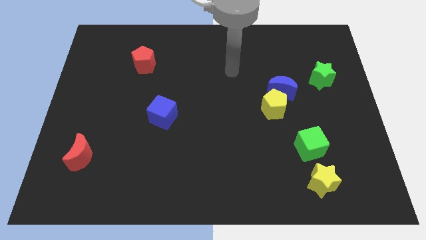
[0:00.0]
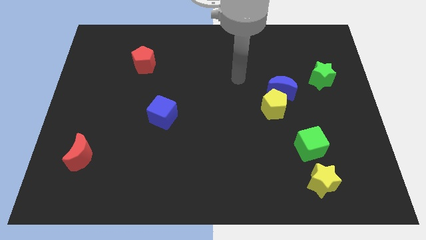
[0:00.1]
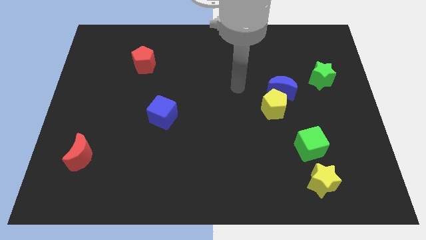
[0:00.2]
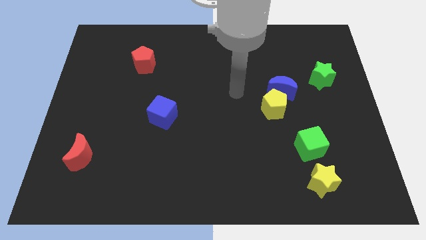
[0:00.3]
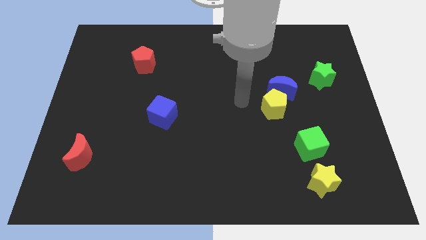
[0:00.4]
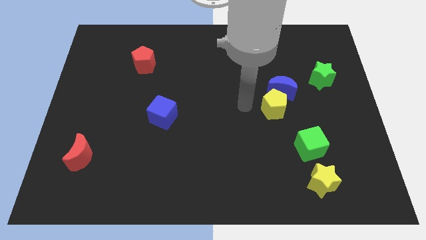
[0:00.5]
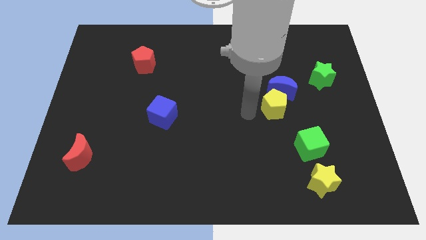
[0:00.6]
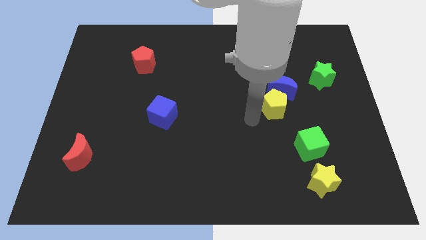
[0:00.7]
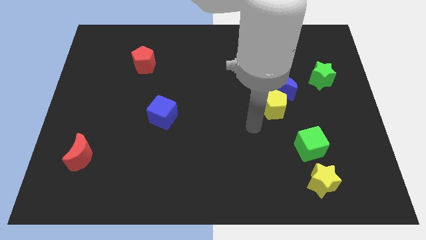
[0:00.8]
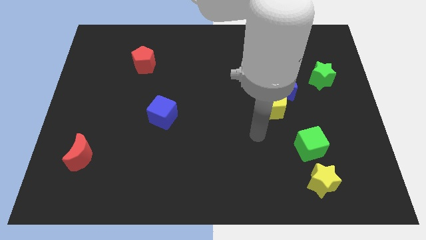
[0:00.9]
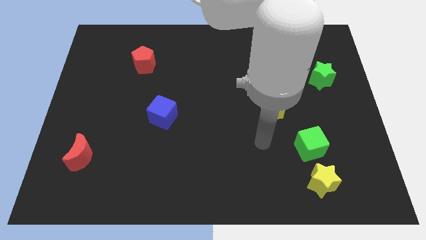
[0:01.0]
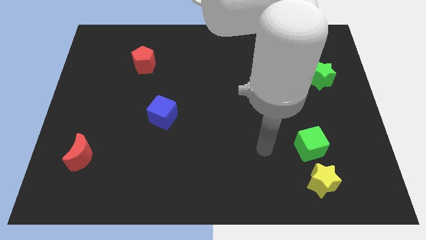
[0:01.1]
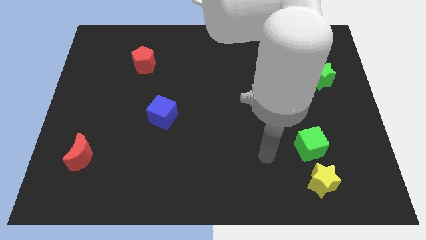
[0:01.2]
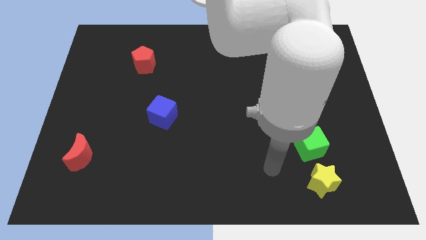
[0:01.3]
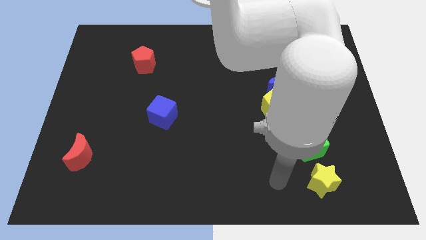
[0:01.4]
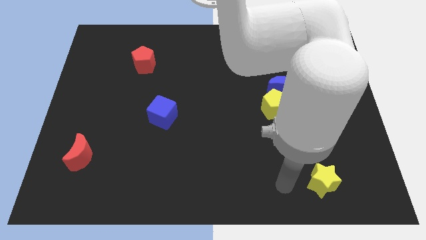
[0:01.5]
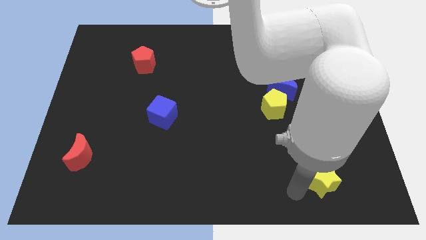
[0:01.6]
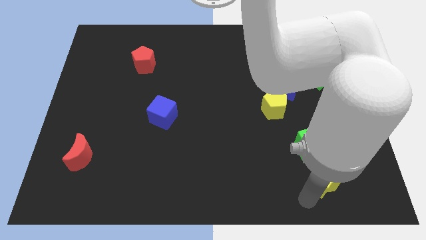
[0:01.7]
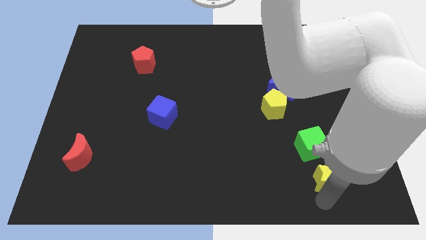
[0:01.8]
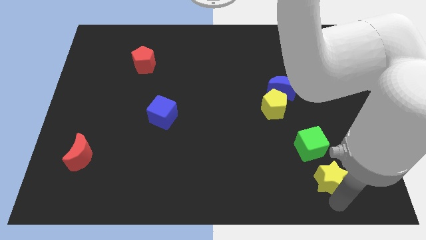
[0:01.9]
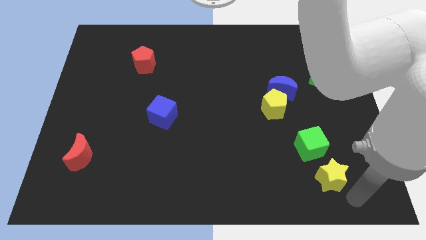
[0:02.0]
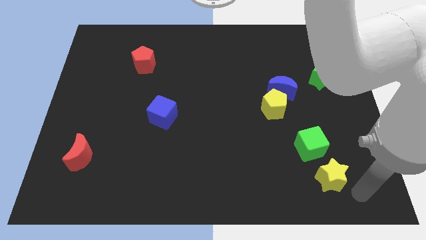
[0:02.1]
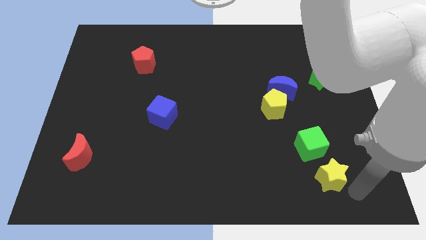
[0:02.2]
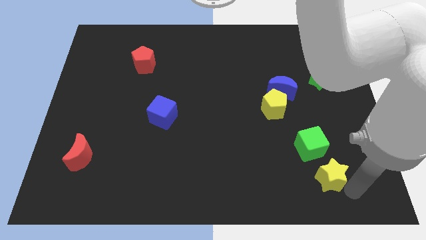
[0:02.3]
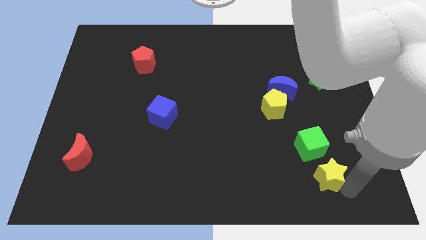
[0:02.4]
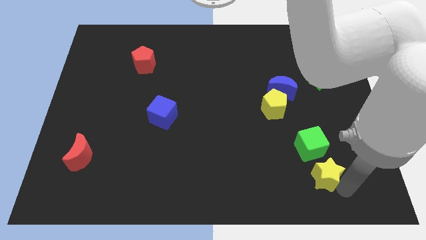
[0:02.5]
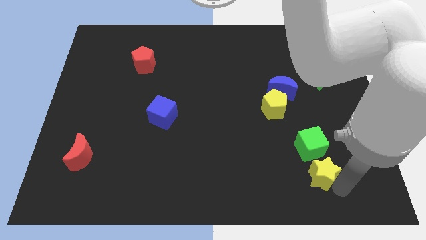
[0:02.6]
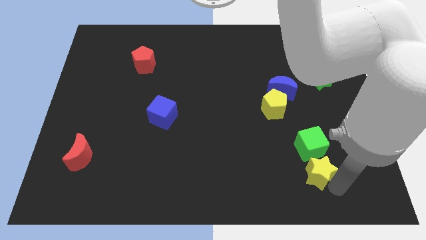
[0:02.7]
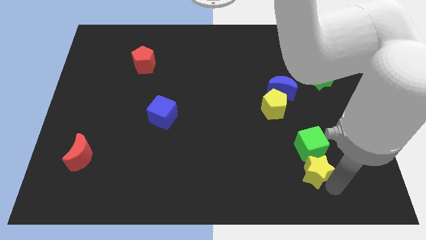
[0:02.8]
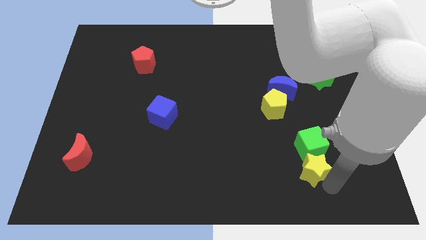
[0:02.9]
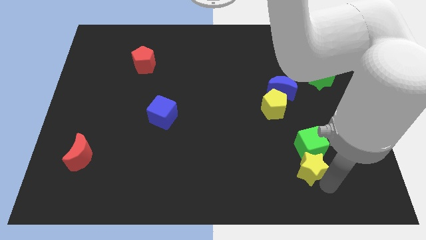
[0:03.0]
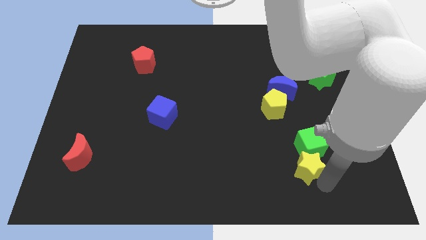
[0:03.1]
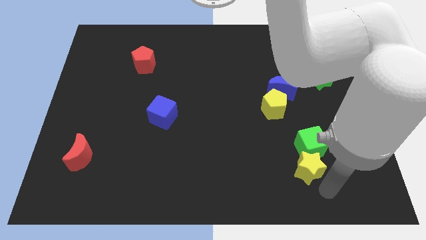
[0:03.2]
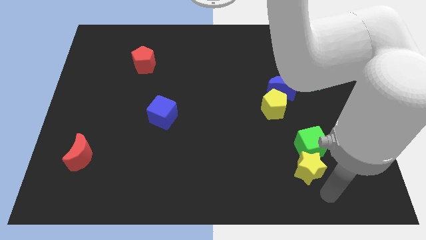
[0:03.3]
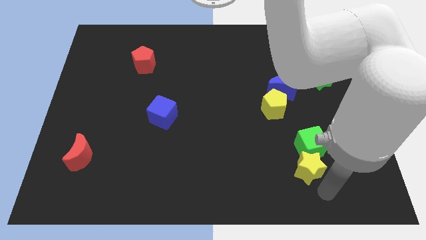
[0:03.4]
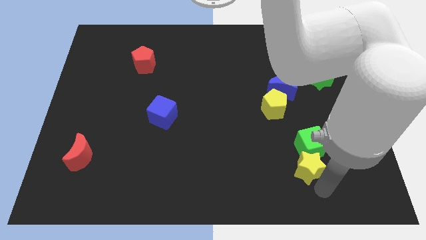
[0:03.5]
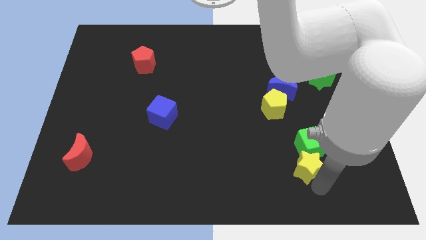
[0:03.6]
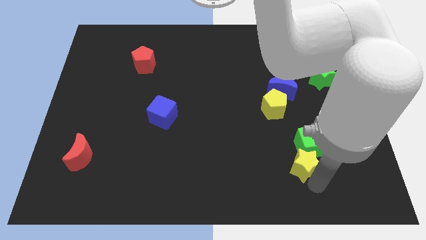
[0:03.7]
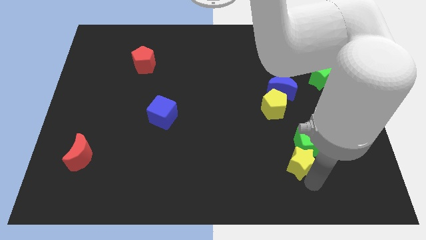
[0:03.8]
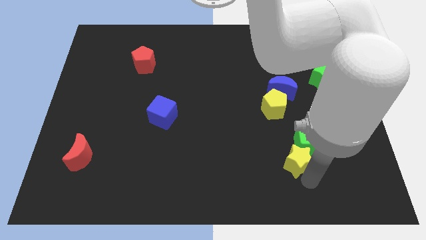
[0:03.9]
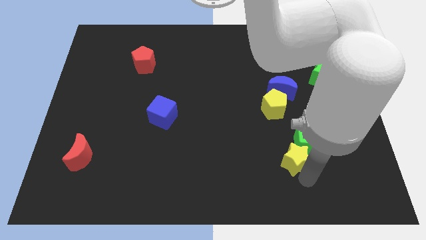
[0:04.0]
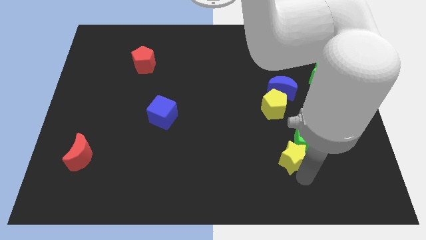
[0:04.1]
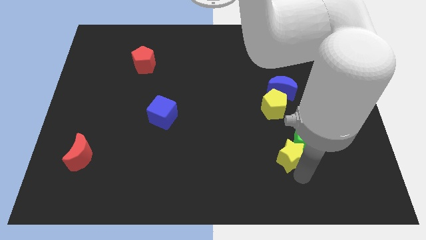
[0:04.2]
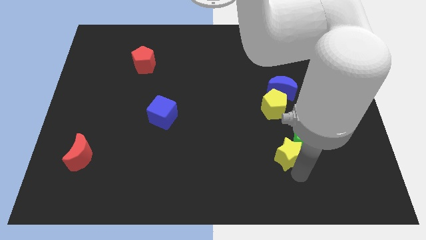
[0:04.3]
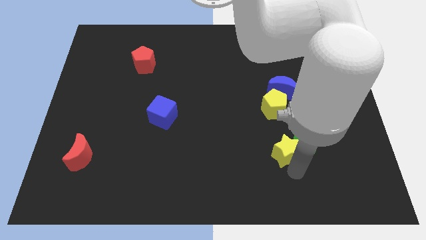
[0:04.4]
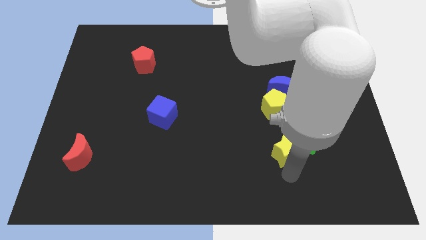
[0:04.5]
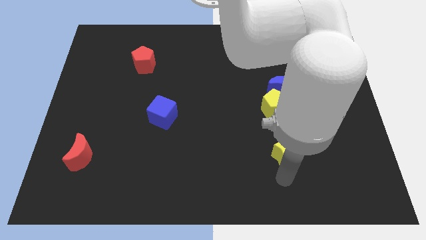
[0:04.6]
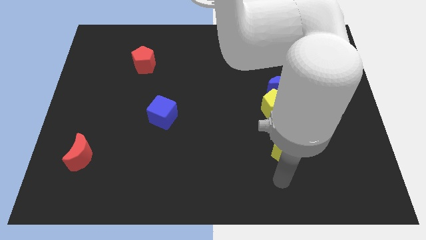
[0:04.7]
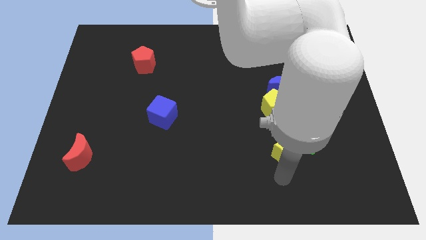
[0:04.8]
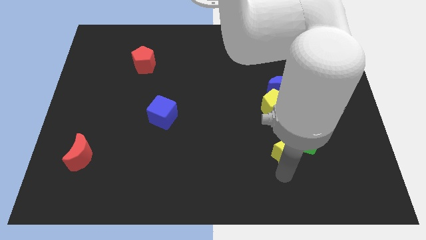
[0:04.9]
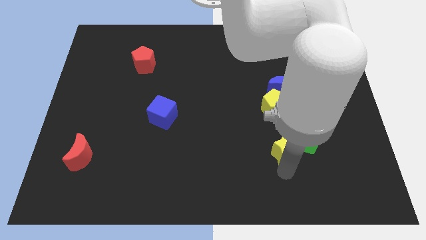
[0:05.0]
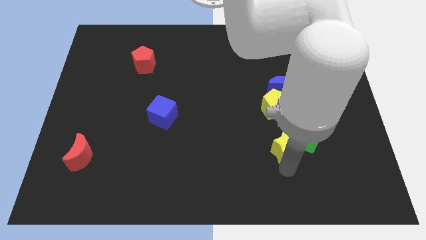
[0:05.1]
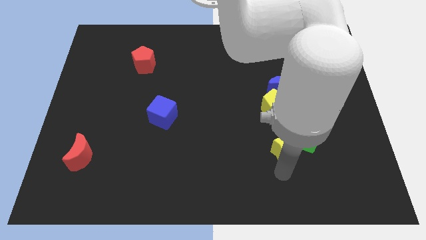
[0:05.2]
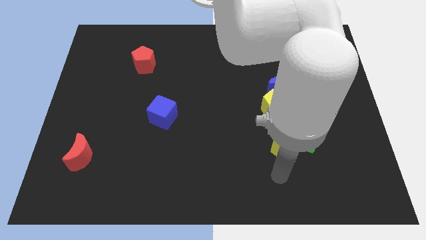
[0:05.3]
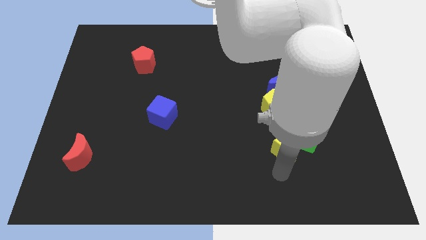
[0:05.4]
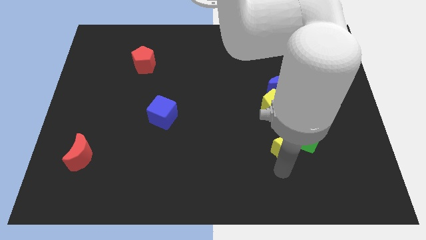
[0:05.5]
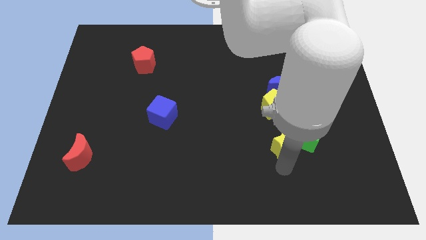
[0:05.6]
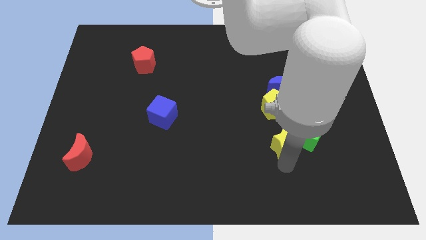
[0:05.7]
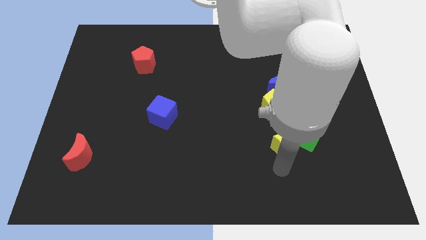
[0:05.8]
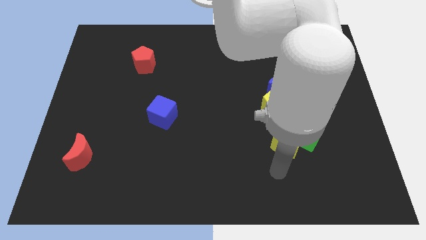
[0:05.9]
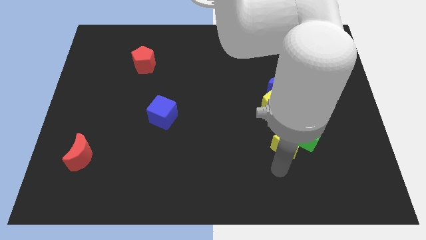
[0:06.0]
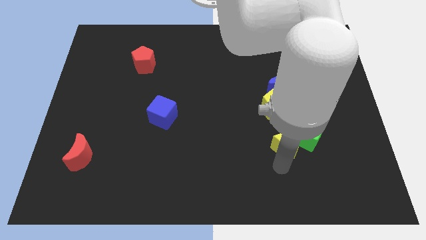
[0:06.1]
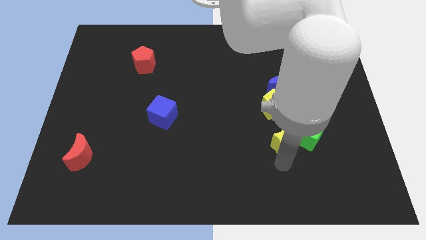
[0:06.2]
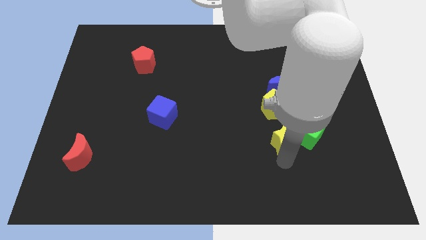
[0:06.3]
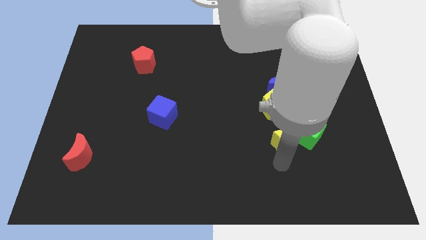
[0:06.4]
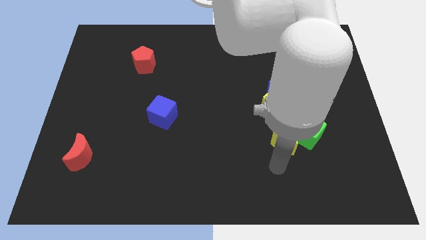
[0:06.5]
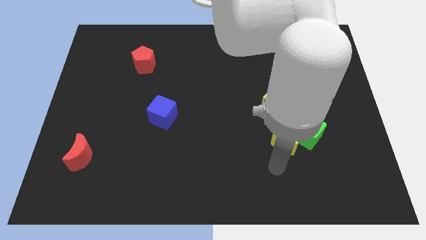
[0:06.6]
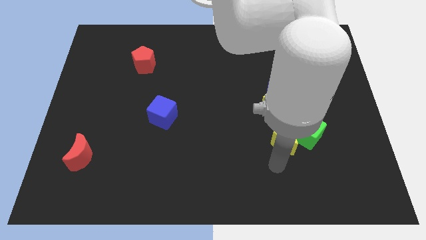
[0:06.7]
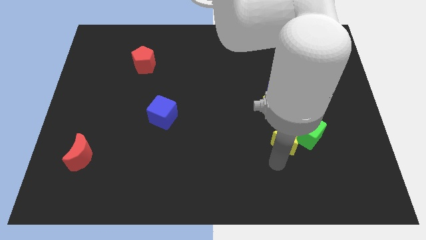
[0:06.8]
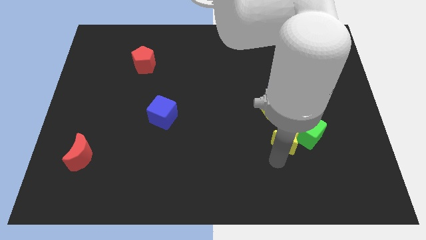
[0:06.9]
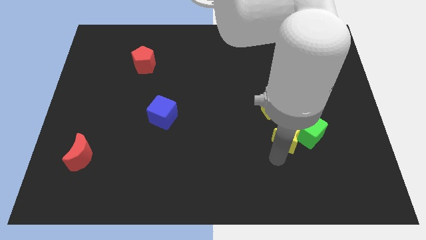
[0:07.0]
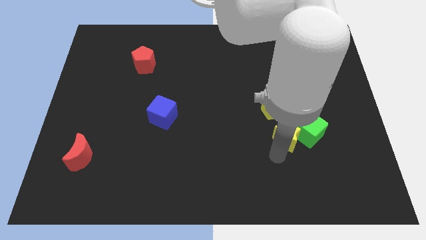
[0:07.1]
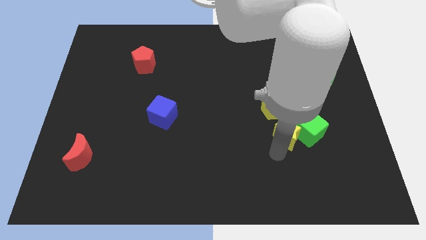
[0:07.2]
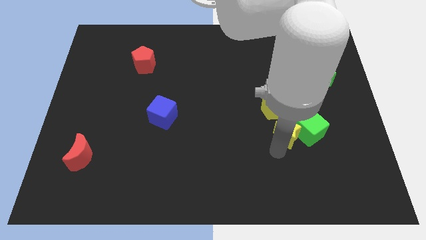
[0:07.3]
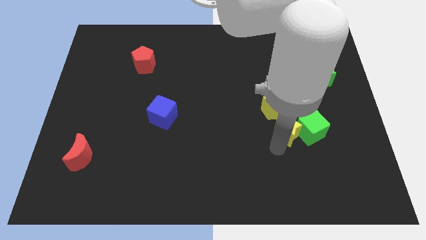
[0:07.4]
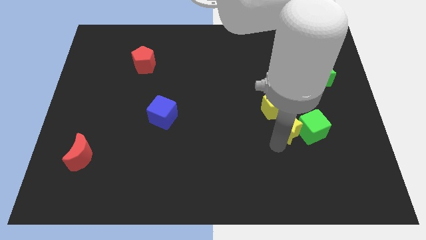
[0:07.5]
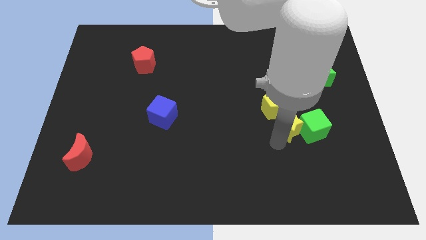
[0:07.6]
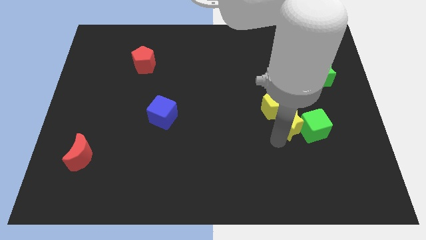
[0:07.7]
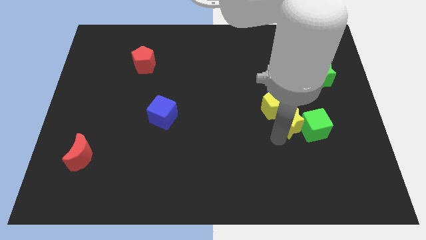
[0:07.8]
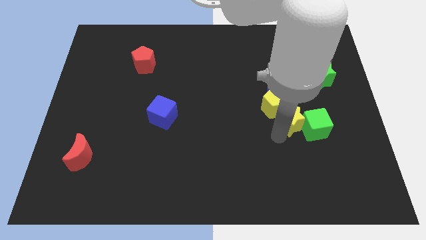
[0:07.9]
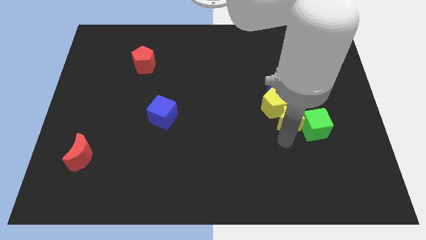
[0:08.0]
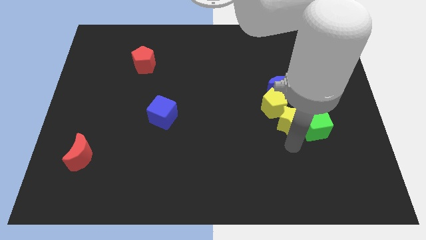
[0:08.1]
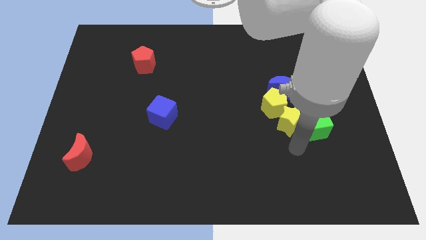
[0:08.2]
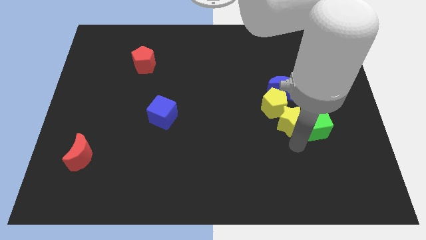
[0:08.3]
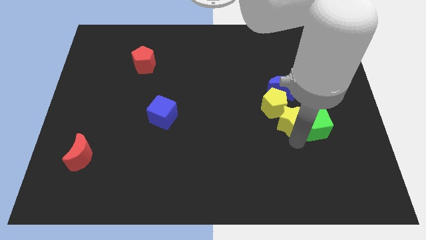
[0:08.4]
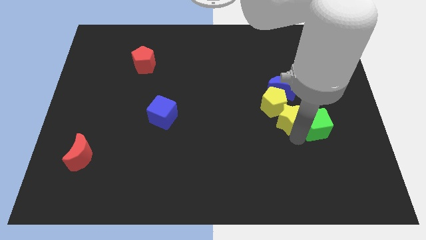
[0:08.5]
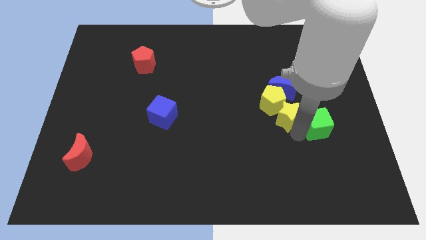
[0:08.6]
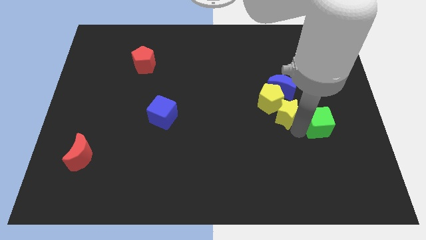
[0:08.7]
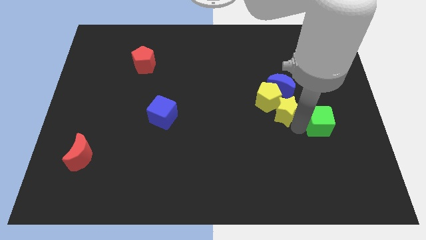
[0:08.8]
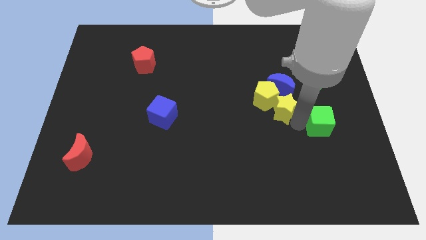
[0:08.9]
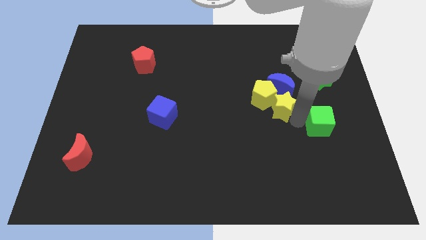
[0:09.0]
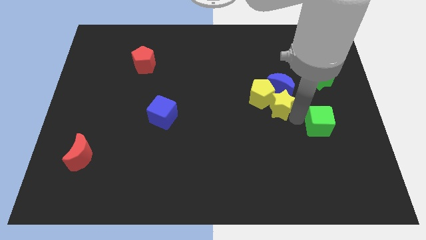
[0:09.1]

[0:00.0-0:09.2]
slide the yellow star to the blue moon
